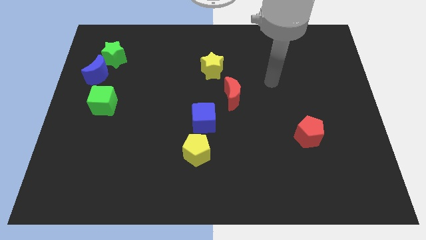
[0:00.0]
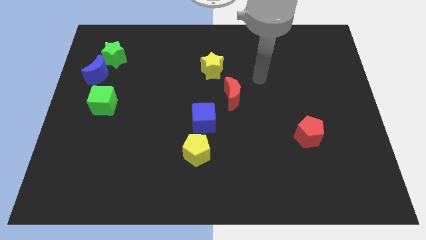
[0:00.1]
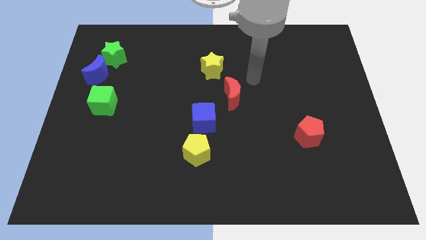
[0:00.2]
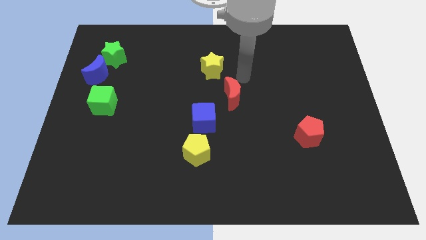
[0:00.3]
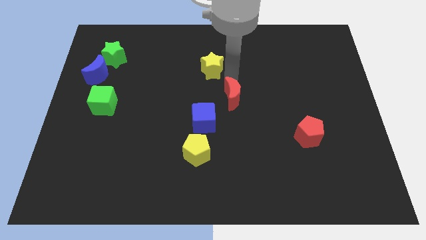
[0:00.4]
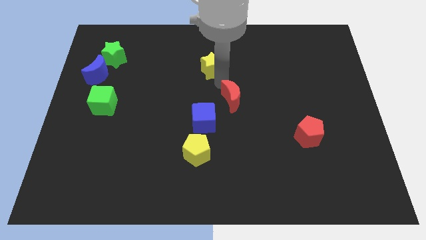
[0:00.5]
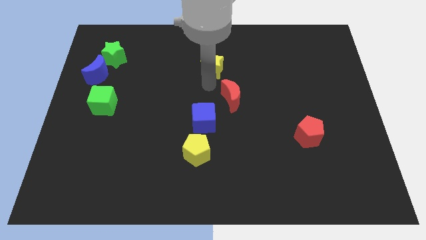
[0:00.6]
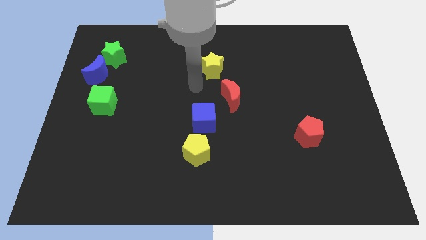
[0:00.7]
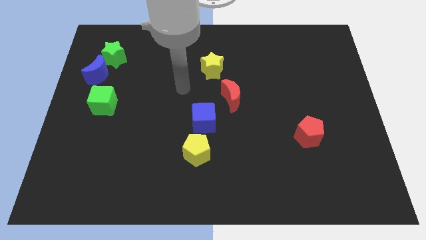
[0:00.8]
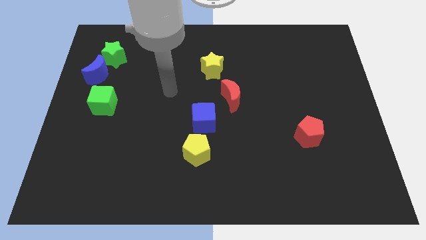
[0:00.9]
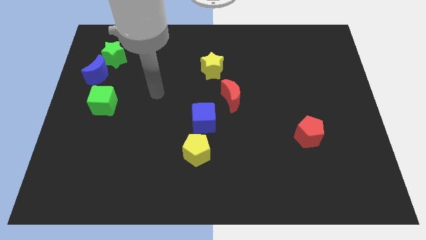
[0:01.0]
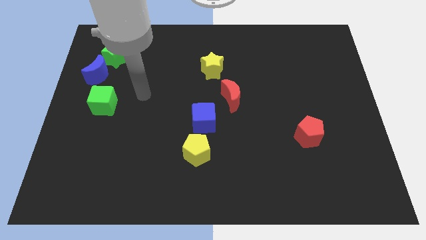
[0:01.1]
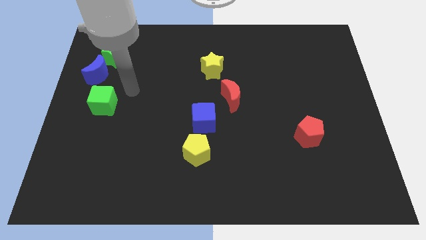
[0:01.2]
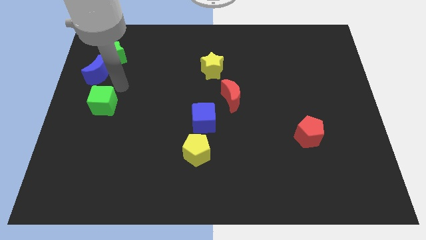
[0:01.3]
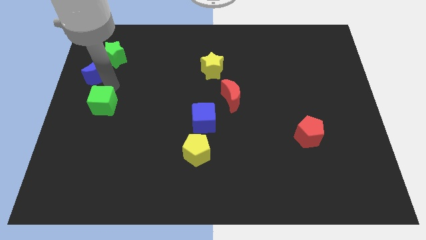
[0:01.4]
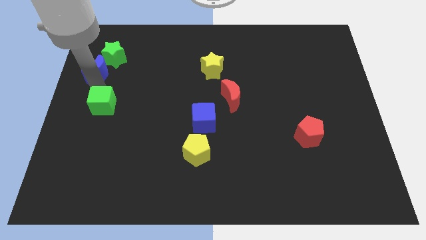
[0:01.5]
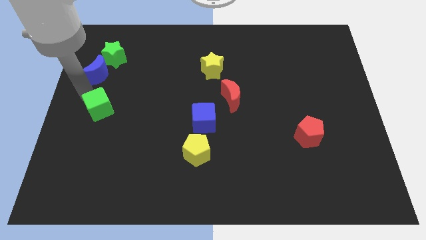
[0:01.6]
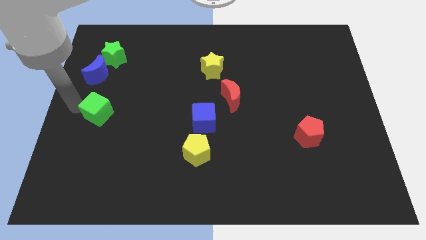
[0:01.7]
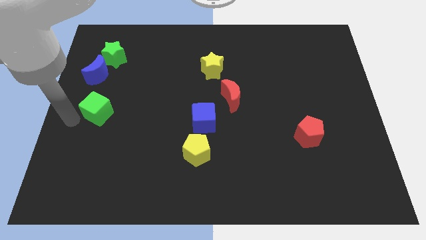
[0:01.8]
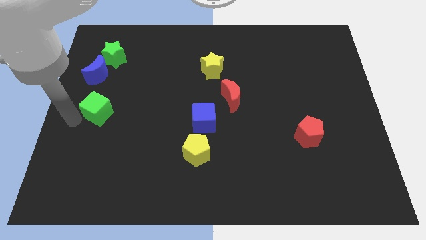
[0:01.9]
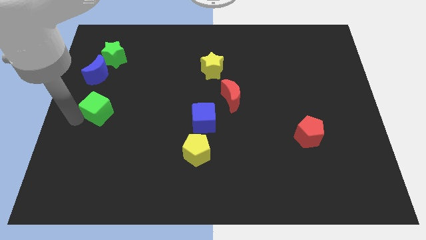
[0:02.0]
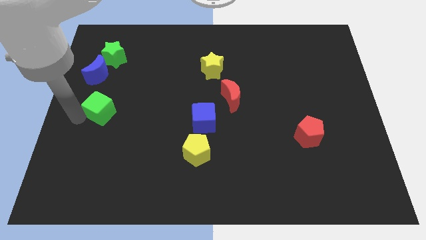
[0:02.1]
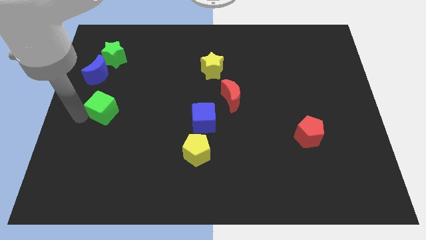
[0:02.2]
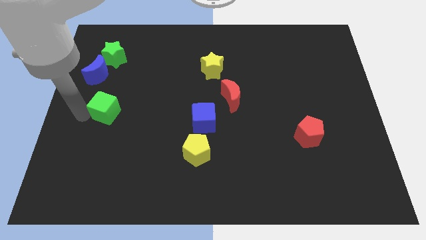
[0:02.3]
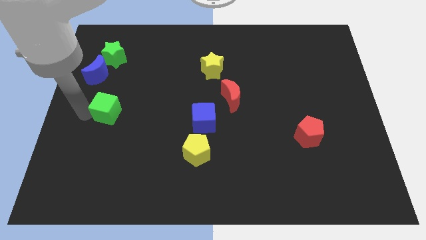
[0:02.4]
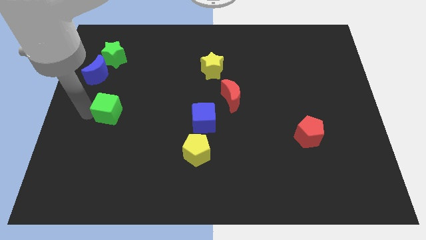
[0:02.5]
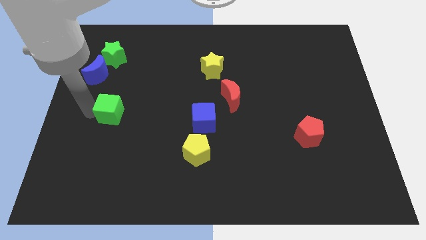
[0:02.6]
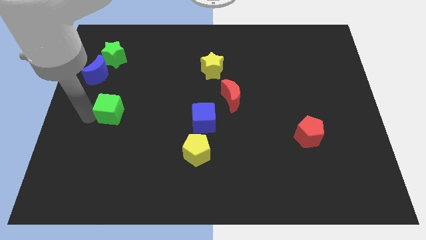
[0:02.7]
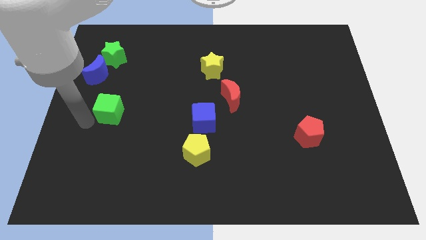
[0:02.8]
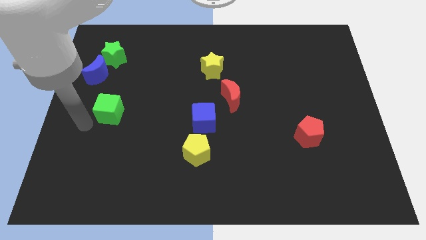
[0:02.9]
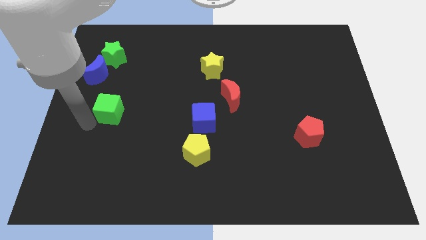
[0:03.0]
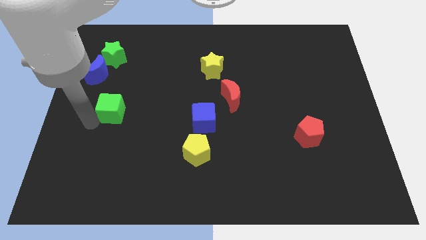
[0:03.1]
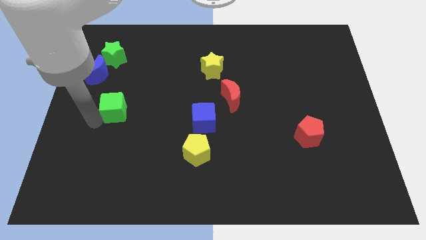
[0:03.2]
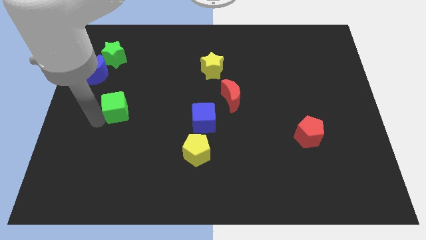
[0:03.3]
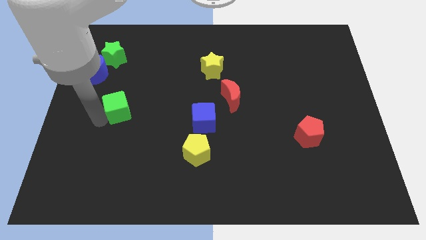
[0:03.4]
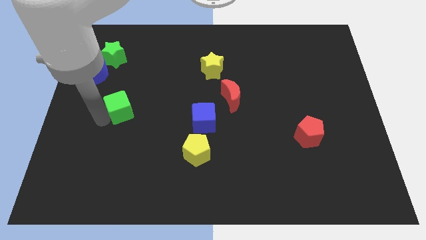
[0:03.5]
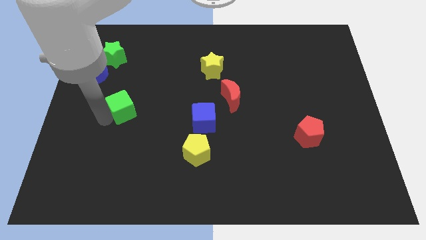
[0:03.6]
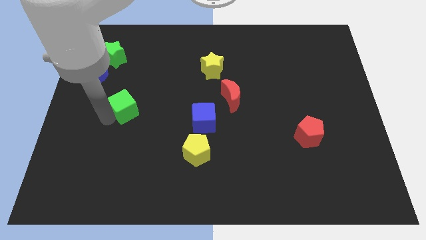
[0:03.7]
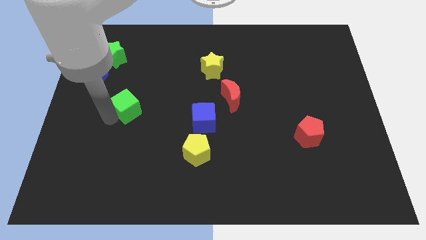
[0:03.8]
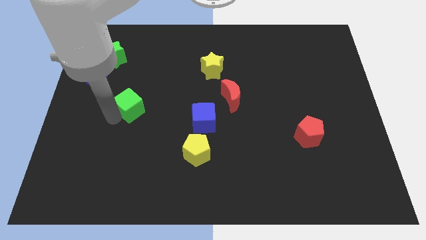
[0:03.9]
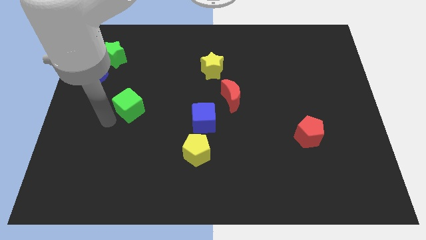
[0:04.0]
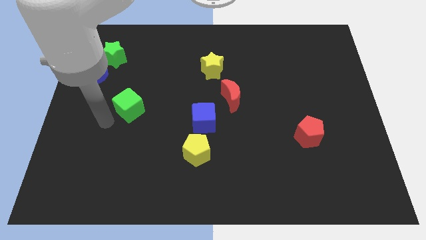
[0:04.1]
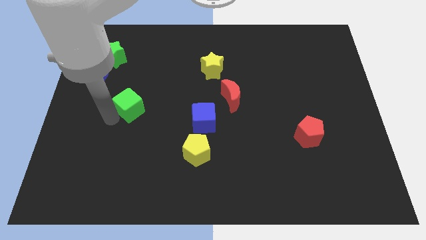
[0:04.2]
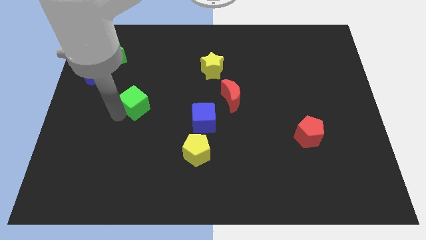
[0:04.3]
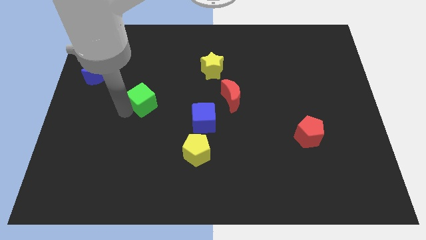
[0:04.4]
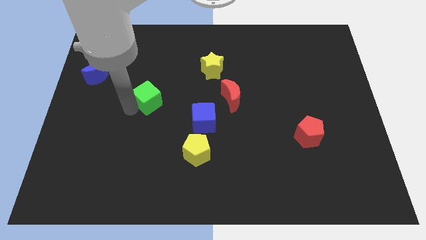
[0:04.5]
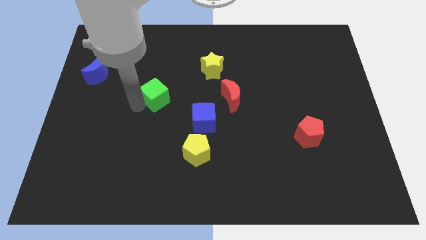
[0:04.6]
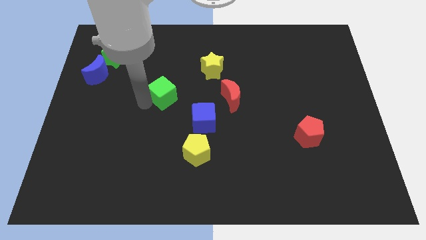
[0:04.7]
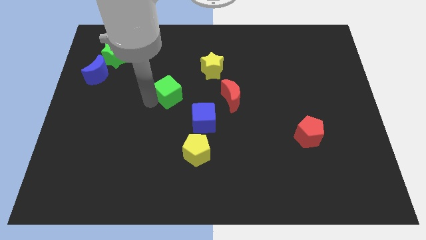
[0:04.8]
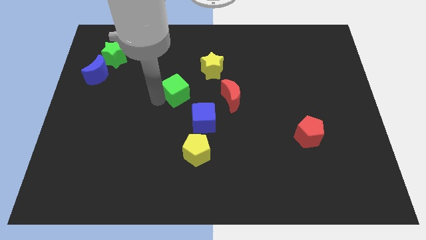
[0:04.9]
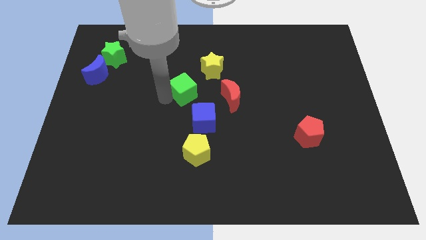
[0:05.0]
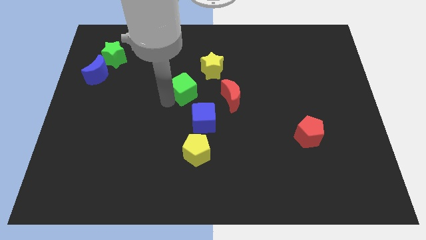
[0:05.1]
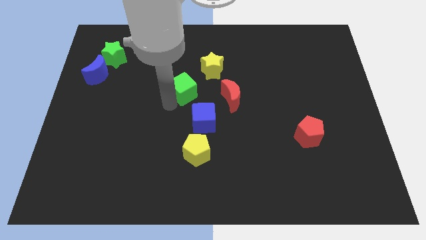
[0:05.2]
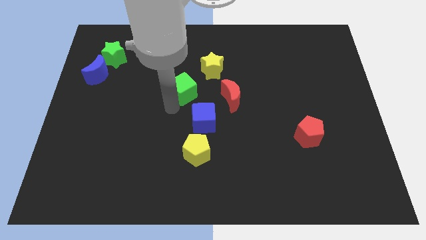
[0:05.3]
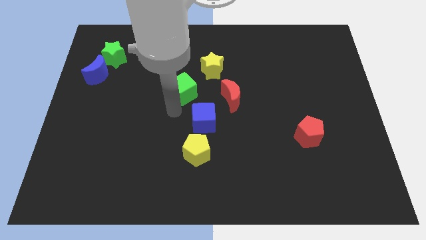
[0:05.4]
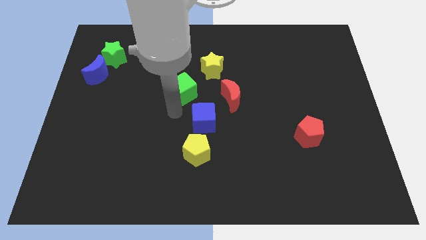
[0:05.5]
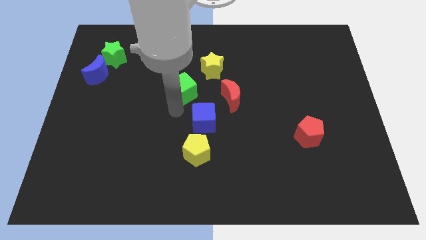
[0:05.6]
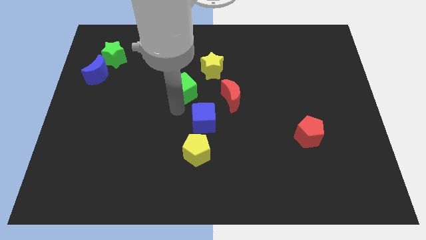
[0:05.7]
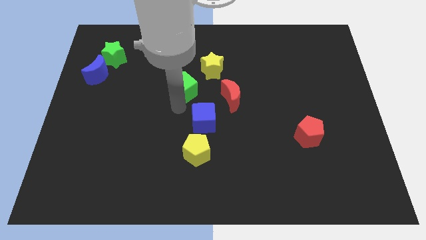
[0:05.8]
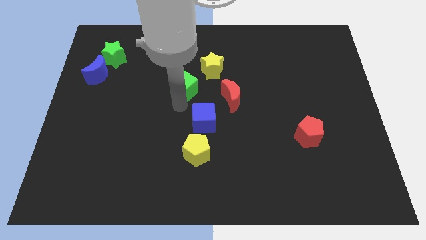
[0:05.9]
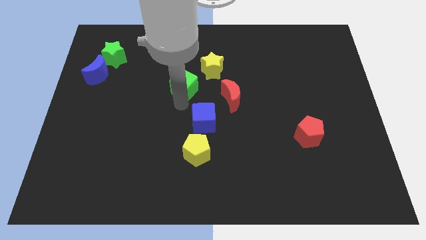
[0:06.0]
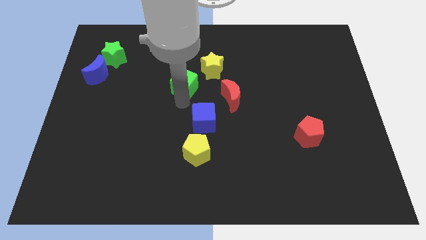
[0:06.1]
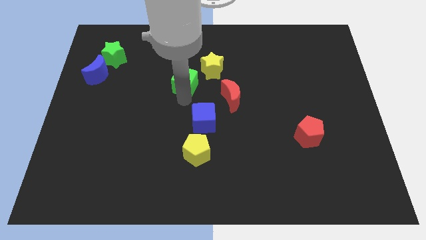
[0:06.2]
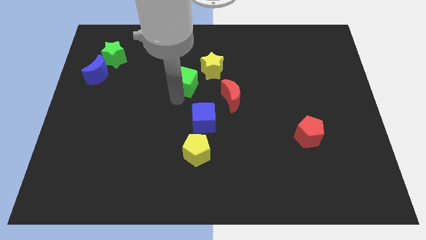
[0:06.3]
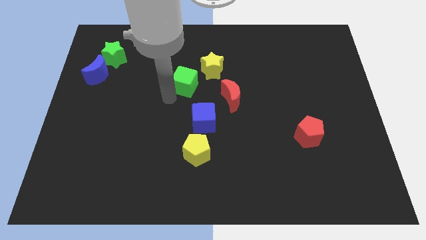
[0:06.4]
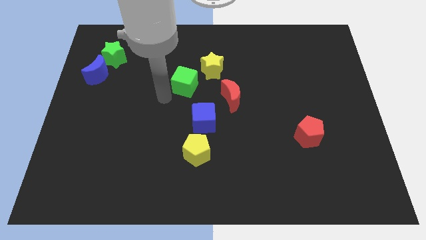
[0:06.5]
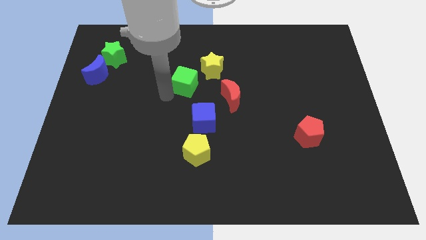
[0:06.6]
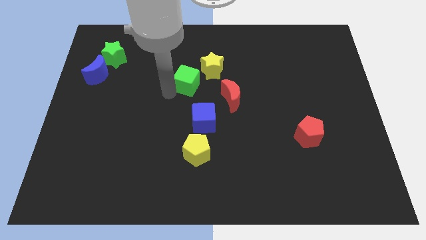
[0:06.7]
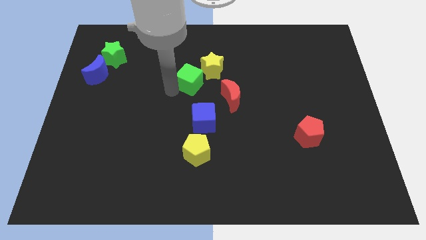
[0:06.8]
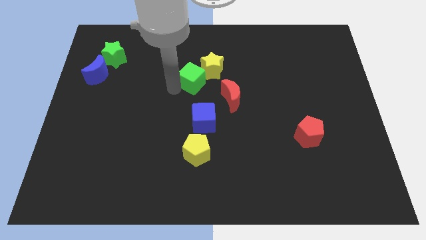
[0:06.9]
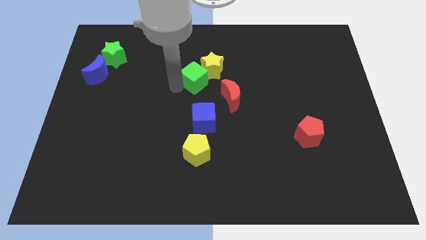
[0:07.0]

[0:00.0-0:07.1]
push the green cube towards the yellow star

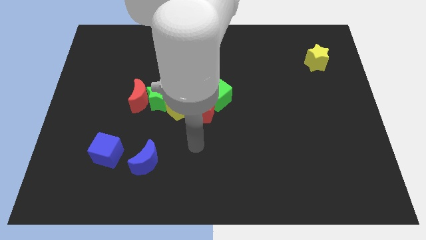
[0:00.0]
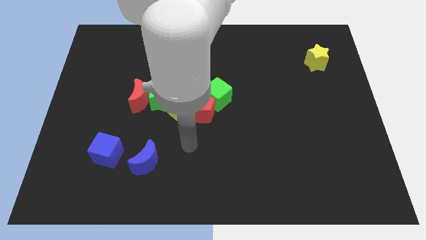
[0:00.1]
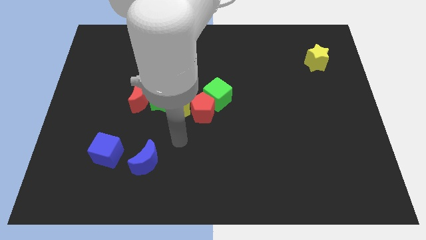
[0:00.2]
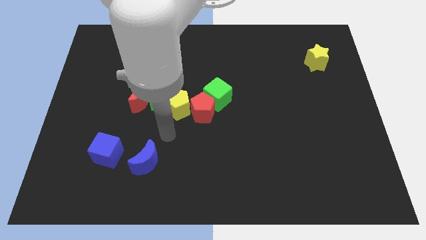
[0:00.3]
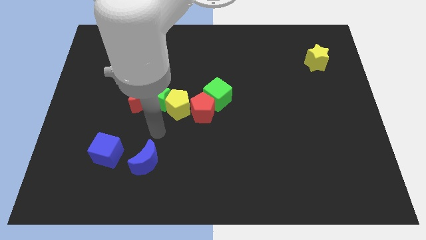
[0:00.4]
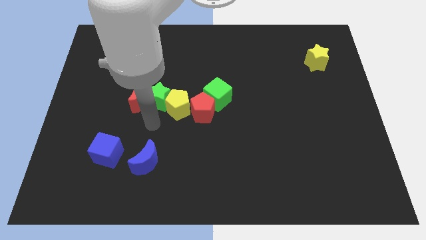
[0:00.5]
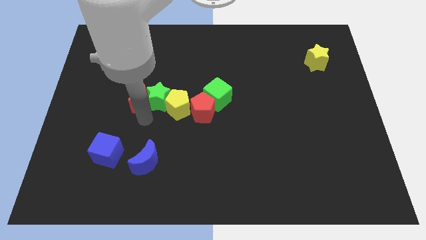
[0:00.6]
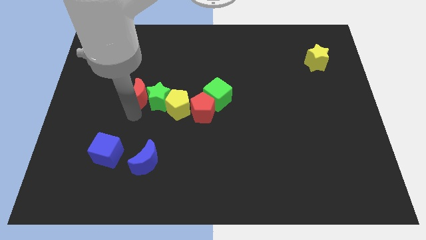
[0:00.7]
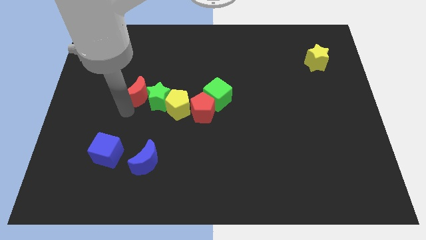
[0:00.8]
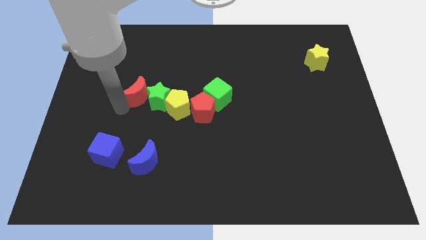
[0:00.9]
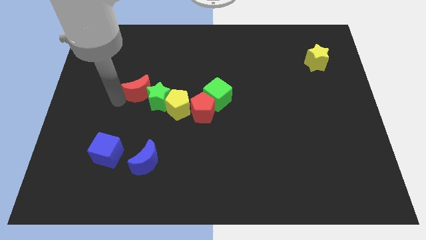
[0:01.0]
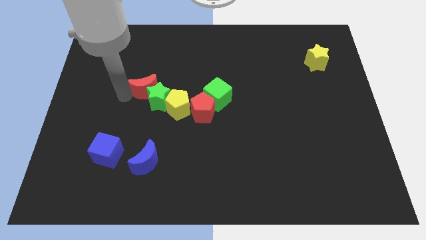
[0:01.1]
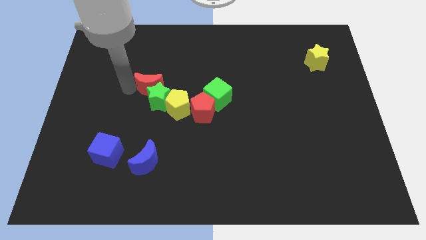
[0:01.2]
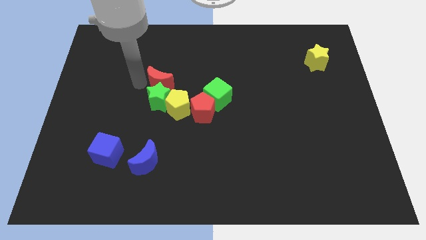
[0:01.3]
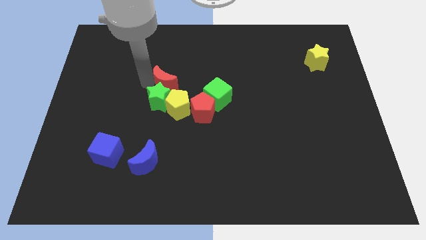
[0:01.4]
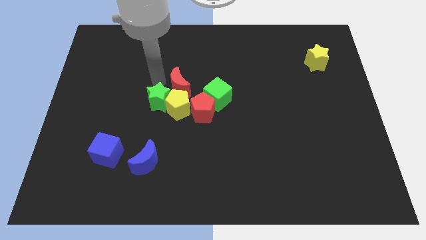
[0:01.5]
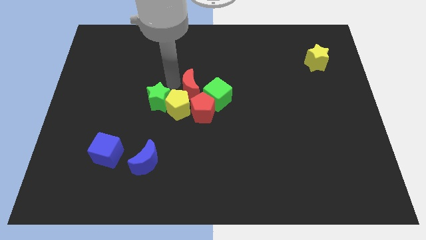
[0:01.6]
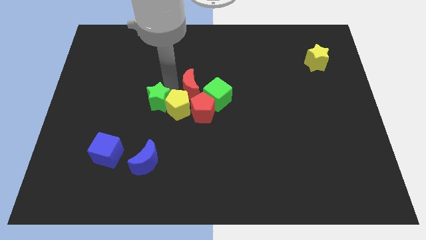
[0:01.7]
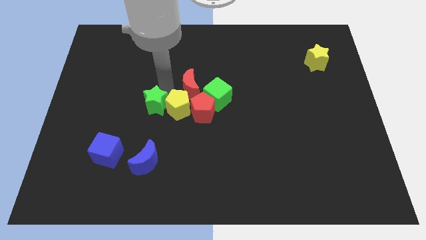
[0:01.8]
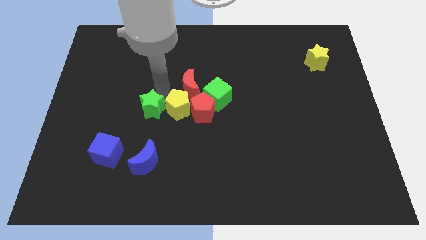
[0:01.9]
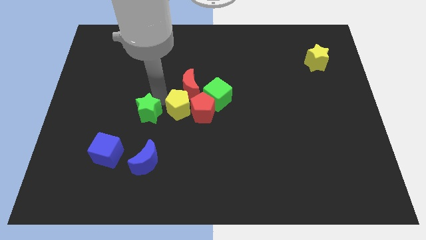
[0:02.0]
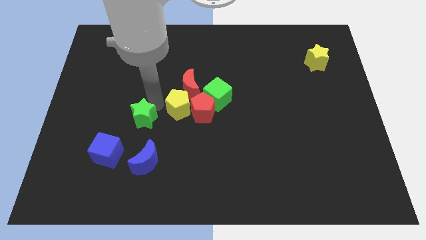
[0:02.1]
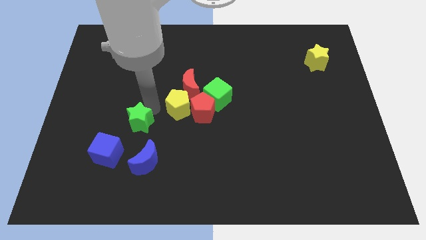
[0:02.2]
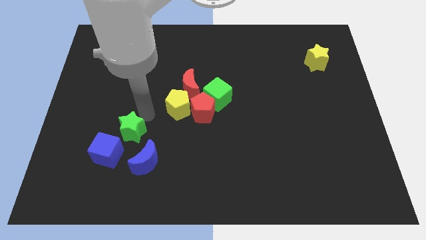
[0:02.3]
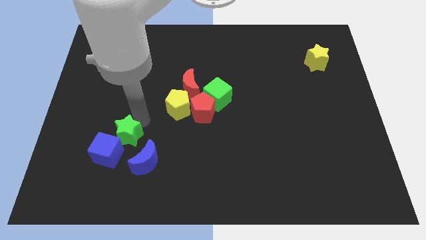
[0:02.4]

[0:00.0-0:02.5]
push the green star close to the blue cube
